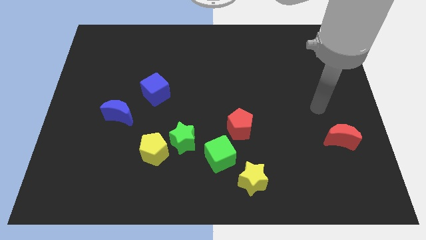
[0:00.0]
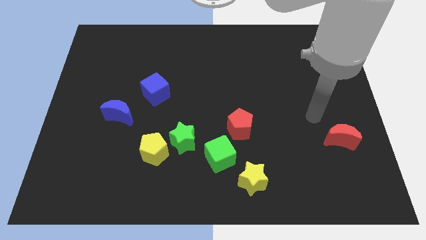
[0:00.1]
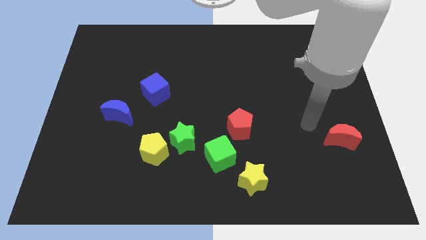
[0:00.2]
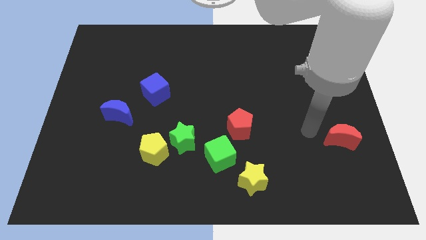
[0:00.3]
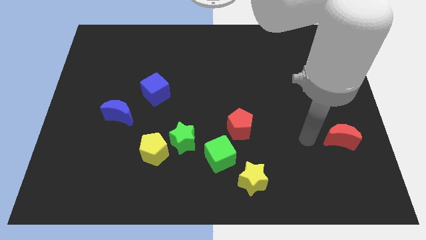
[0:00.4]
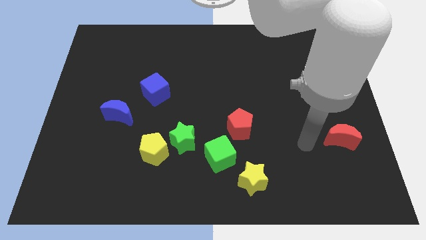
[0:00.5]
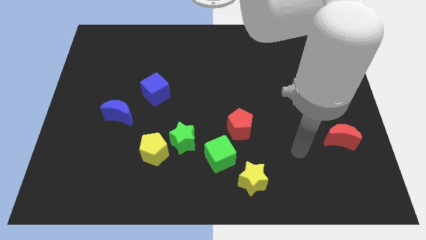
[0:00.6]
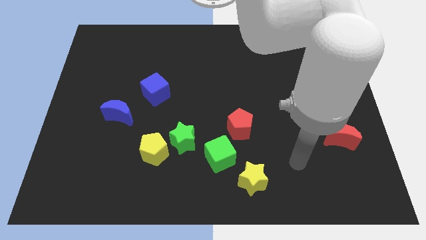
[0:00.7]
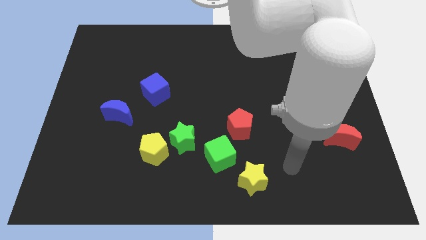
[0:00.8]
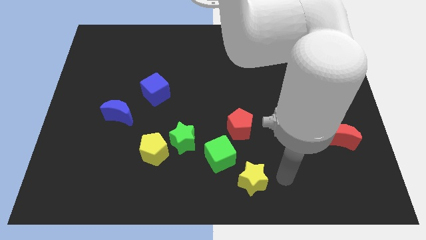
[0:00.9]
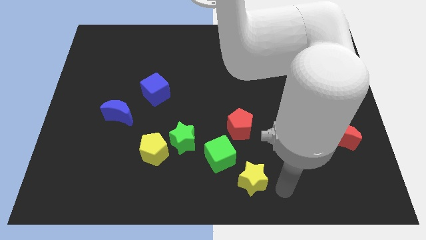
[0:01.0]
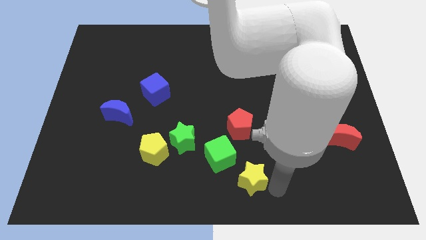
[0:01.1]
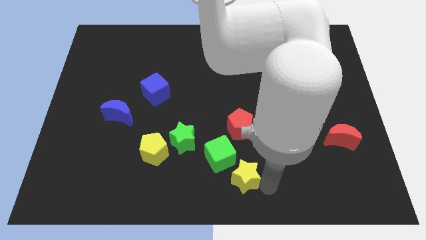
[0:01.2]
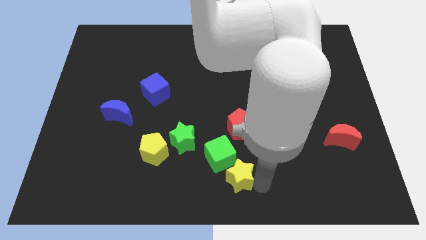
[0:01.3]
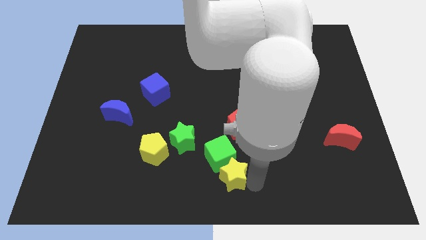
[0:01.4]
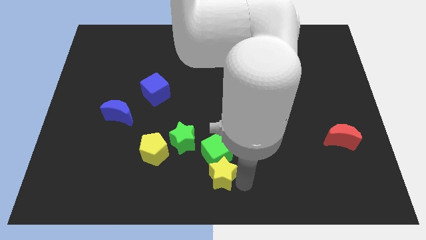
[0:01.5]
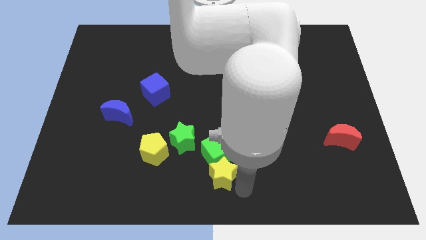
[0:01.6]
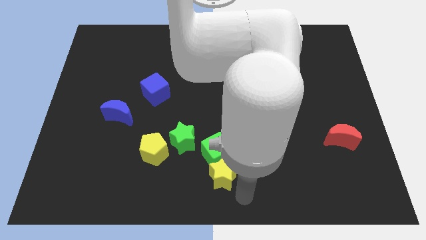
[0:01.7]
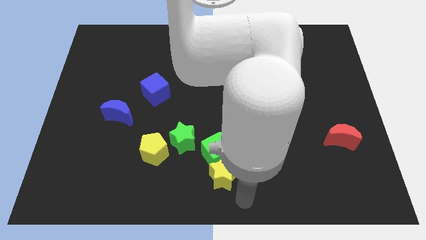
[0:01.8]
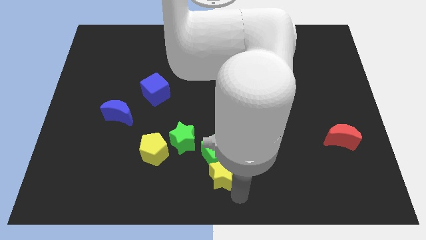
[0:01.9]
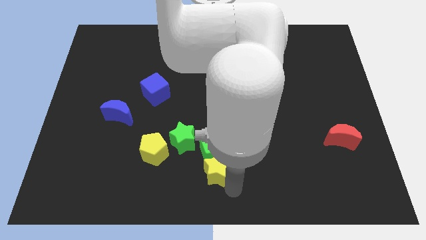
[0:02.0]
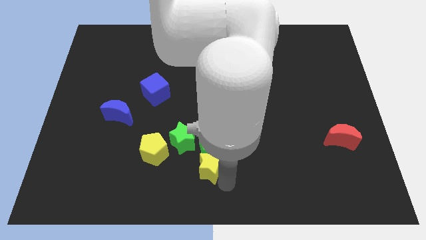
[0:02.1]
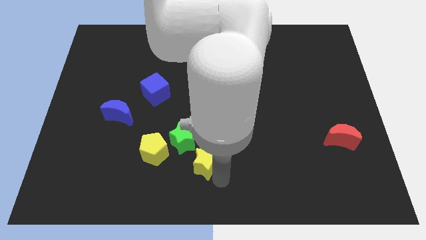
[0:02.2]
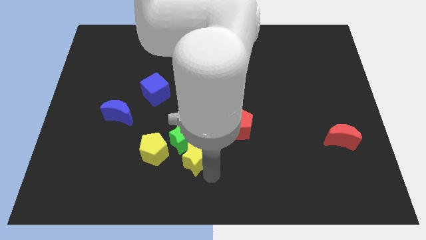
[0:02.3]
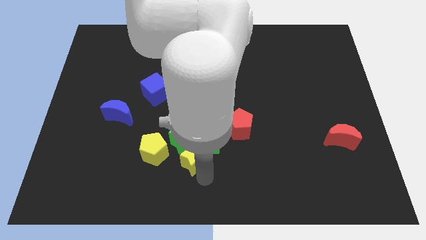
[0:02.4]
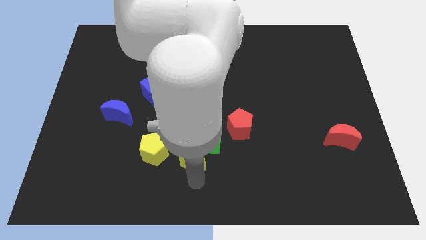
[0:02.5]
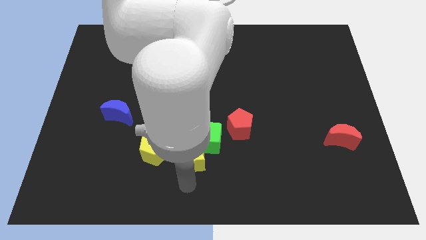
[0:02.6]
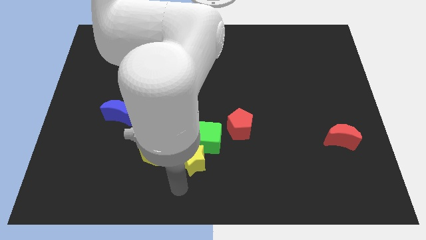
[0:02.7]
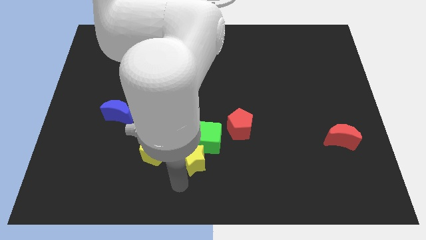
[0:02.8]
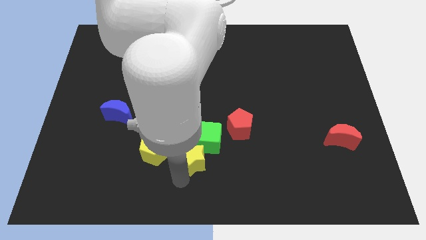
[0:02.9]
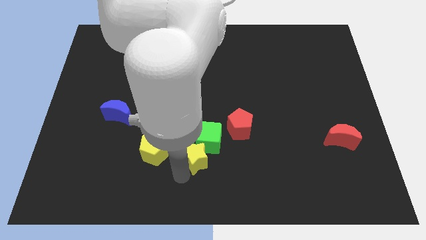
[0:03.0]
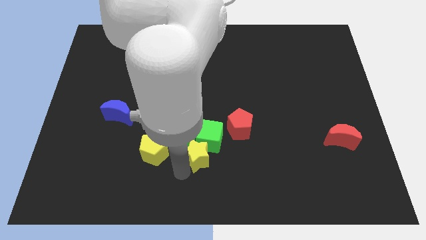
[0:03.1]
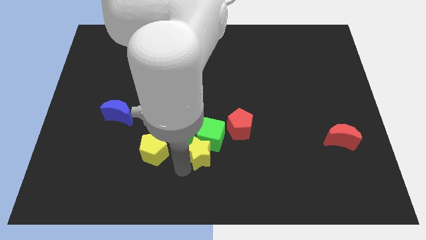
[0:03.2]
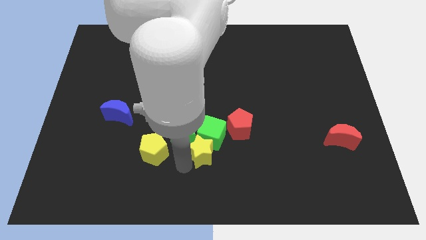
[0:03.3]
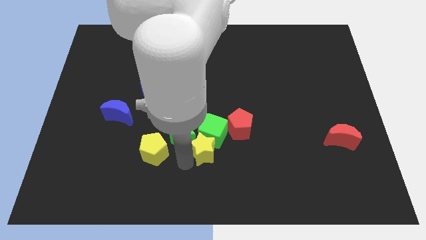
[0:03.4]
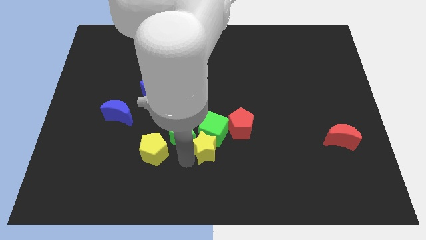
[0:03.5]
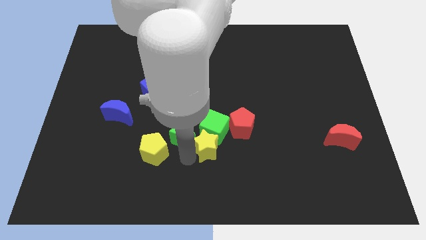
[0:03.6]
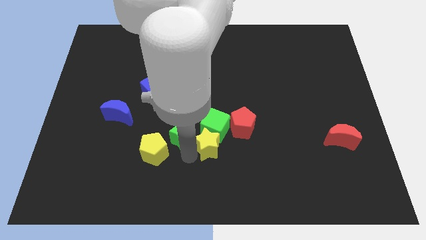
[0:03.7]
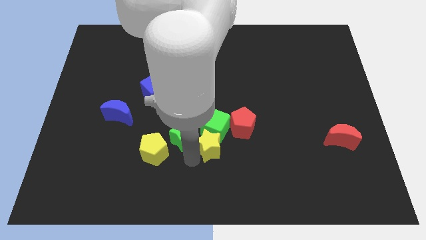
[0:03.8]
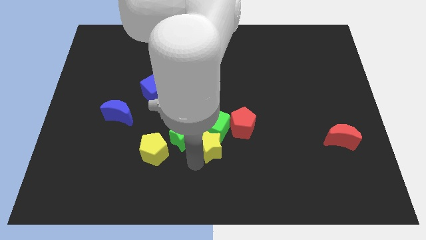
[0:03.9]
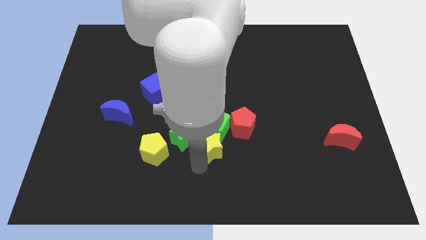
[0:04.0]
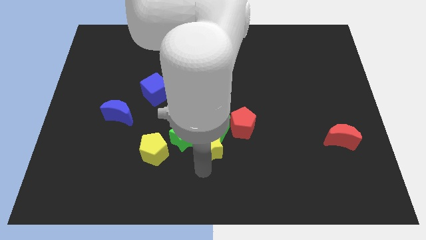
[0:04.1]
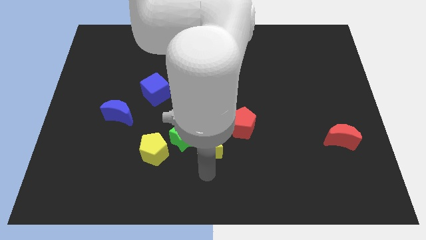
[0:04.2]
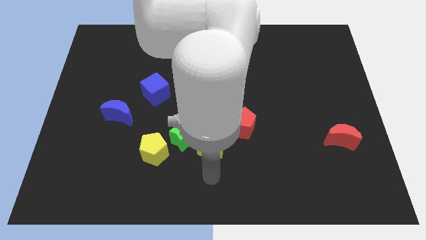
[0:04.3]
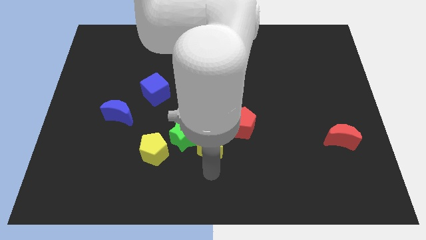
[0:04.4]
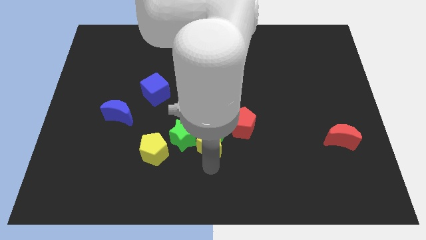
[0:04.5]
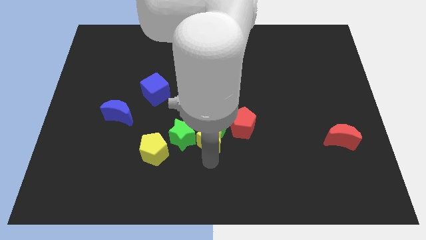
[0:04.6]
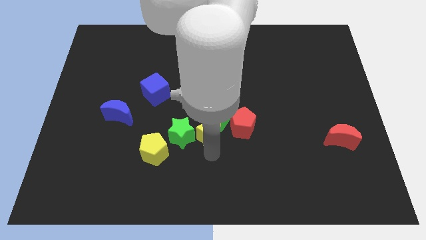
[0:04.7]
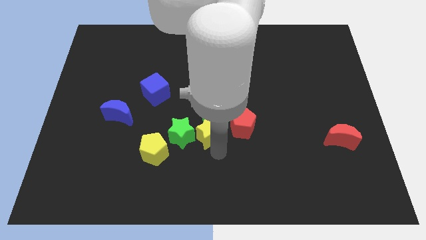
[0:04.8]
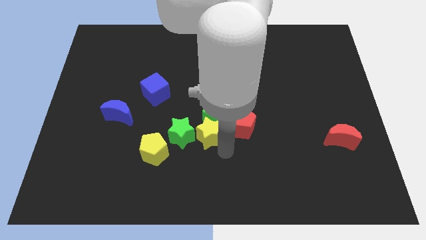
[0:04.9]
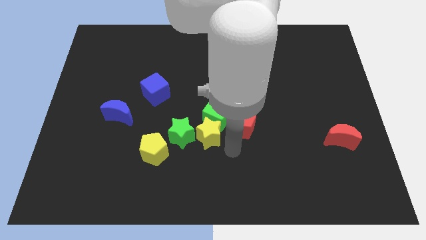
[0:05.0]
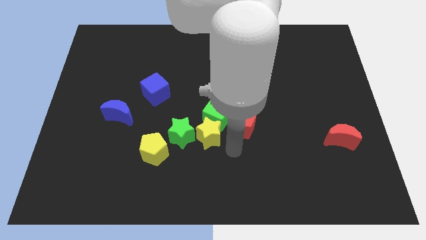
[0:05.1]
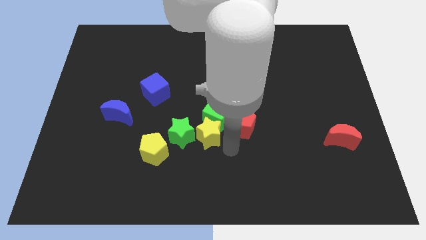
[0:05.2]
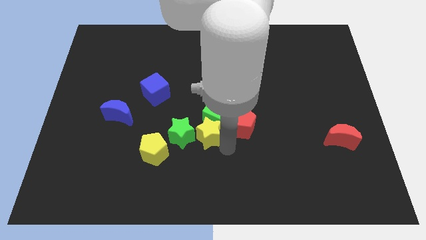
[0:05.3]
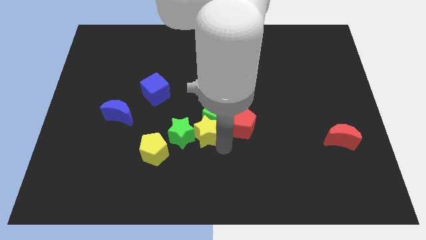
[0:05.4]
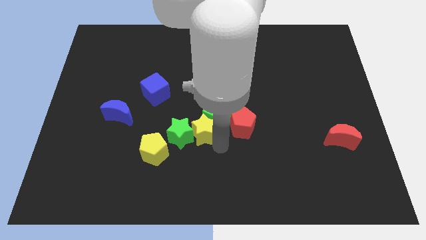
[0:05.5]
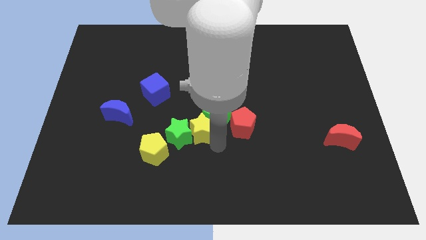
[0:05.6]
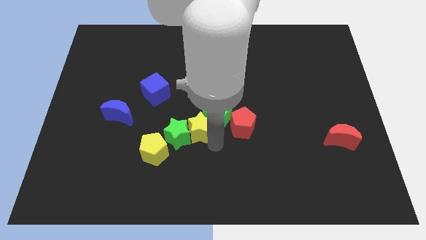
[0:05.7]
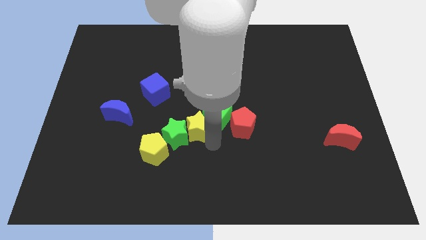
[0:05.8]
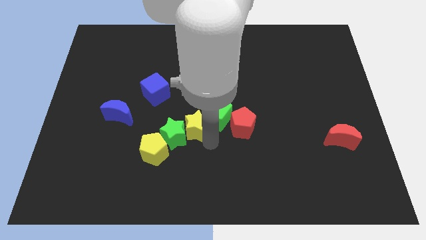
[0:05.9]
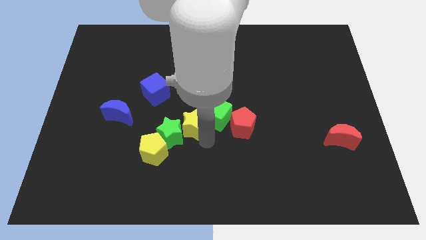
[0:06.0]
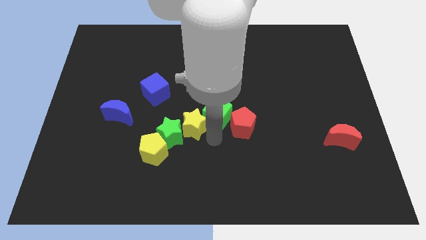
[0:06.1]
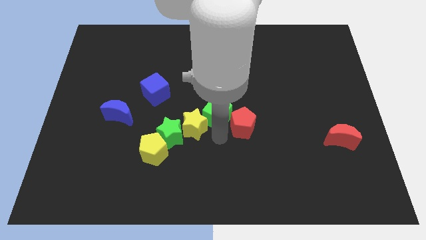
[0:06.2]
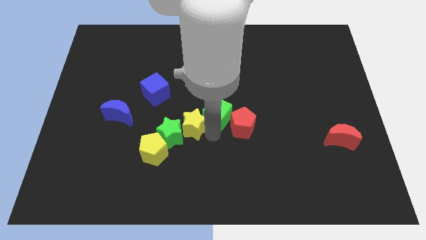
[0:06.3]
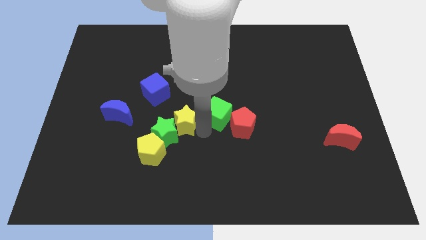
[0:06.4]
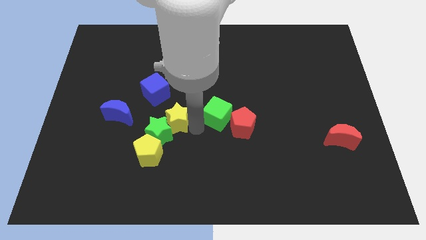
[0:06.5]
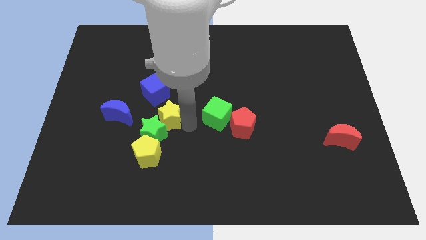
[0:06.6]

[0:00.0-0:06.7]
move the yellow star above the yellow pentagon
